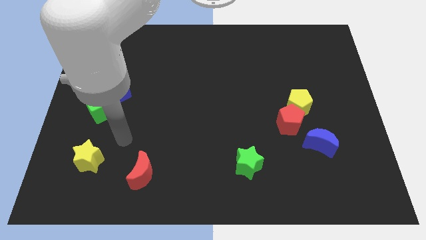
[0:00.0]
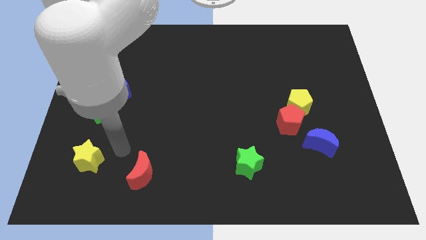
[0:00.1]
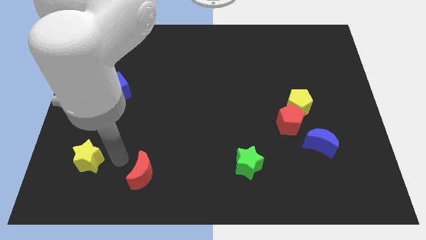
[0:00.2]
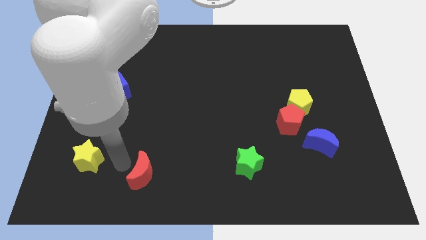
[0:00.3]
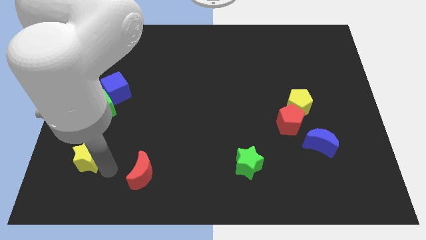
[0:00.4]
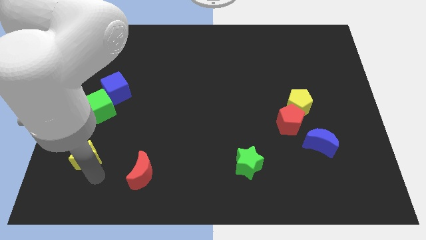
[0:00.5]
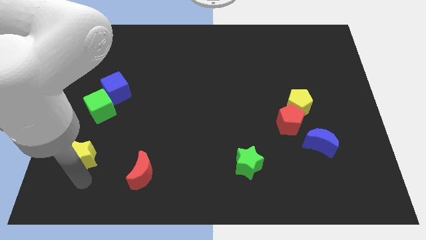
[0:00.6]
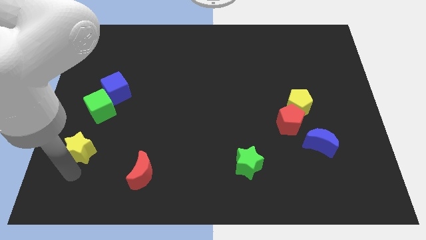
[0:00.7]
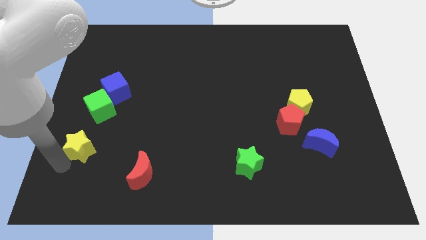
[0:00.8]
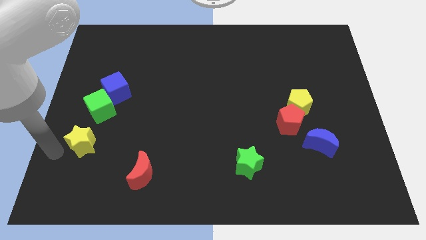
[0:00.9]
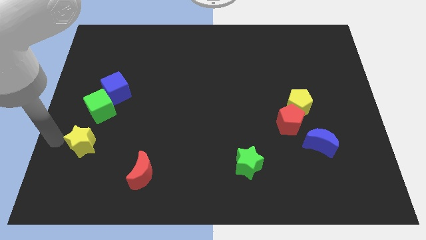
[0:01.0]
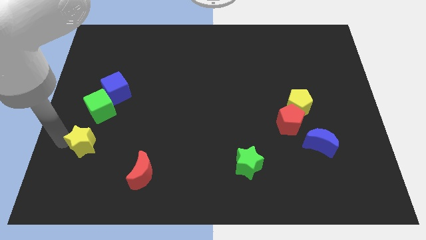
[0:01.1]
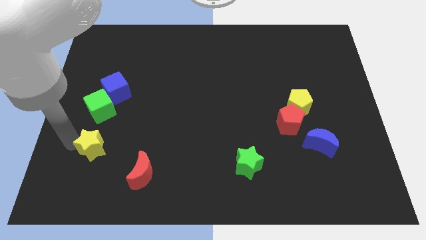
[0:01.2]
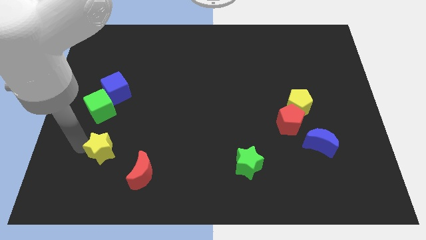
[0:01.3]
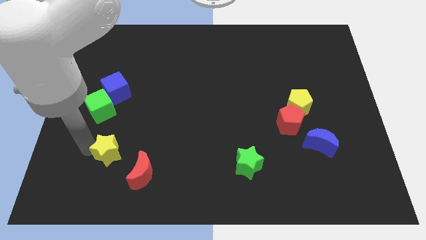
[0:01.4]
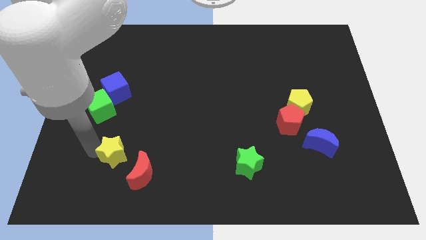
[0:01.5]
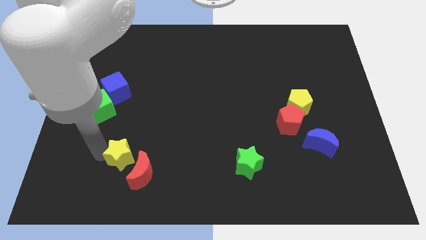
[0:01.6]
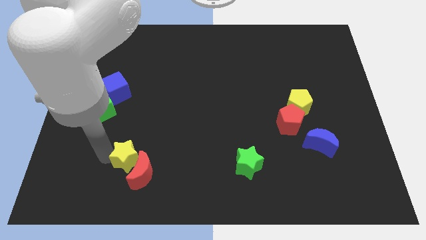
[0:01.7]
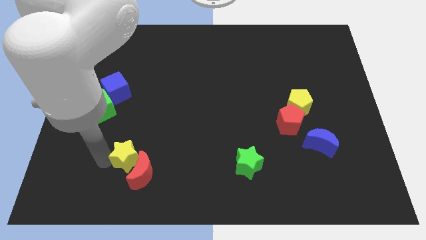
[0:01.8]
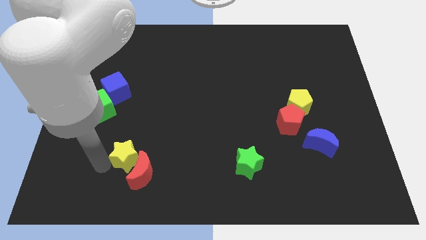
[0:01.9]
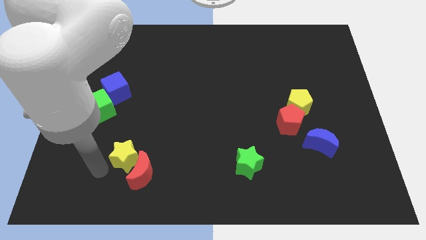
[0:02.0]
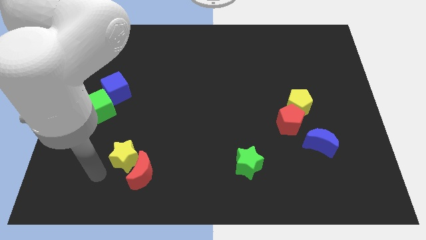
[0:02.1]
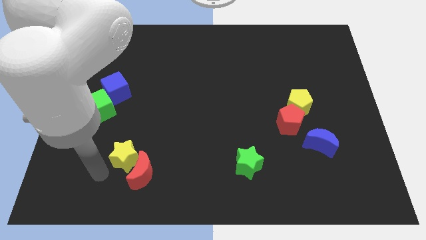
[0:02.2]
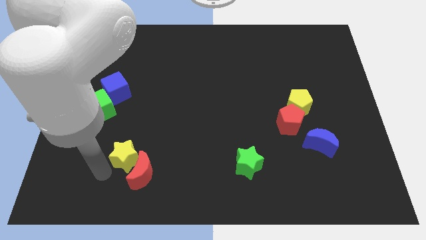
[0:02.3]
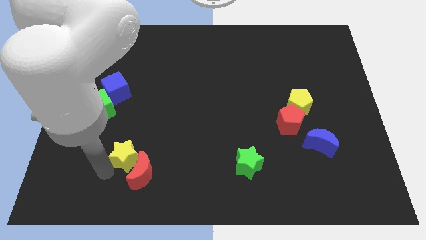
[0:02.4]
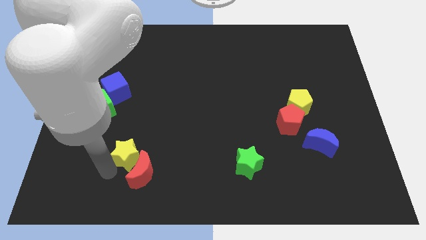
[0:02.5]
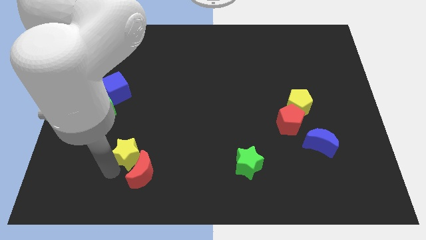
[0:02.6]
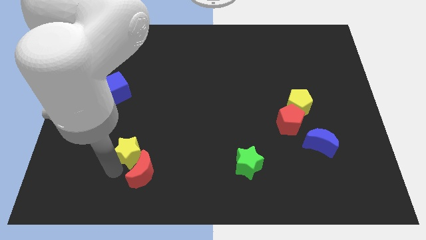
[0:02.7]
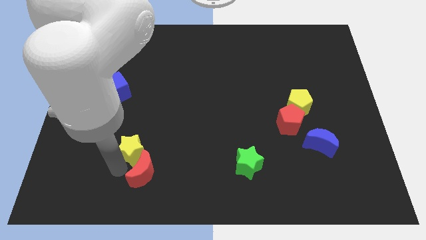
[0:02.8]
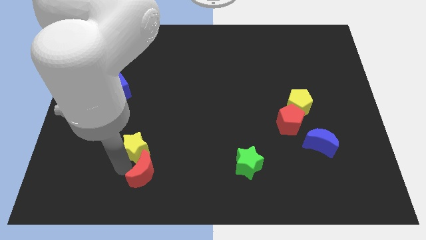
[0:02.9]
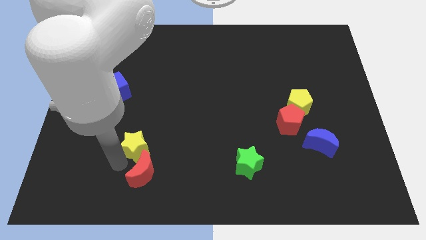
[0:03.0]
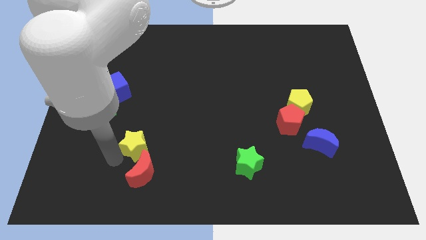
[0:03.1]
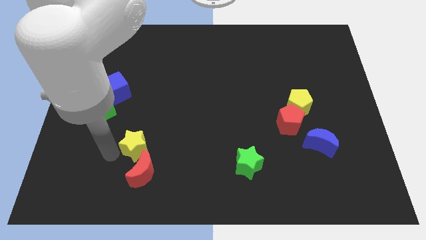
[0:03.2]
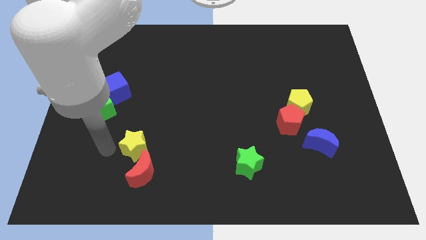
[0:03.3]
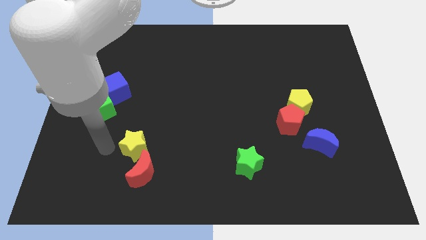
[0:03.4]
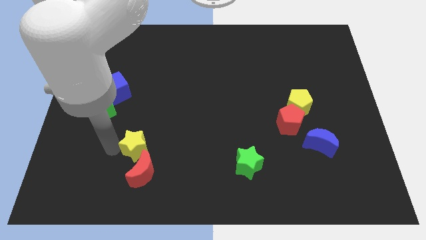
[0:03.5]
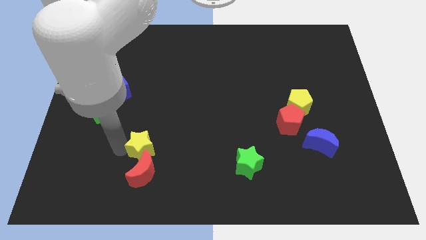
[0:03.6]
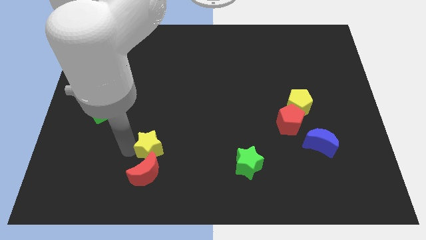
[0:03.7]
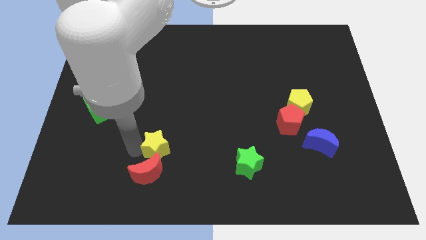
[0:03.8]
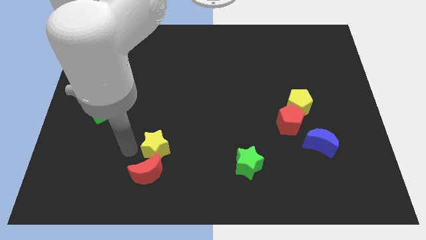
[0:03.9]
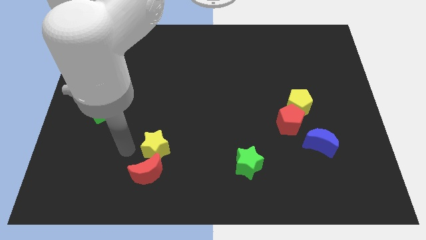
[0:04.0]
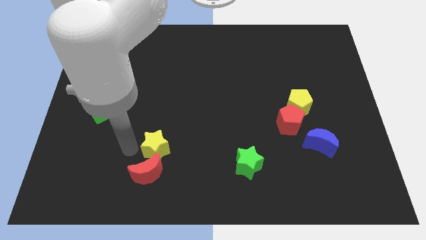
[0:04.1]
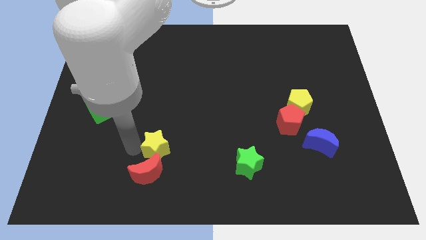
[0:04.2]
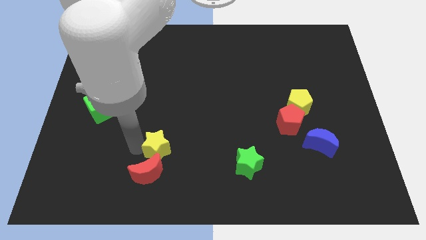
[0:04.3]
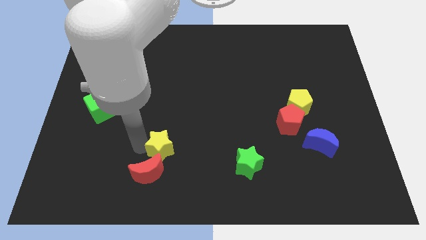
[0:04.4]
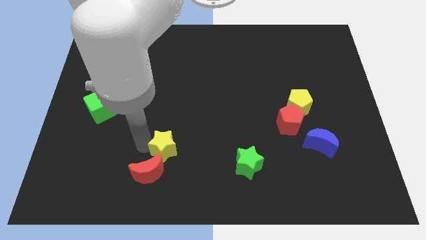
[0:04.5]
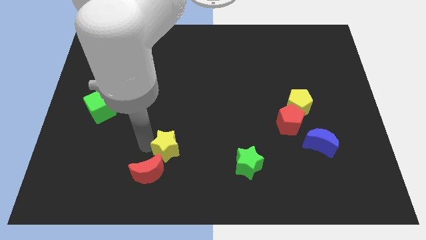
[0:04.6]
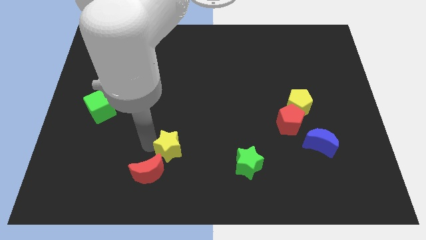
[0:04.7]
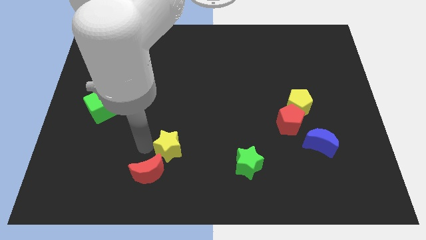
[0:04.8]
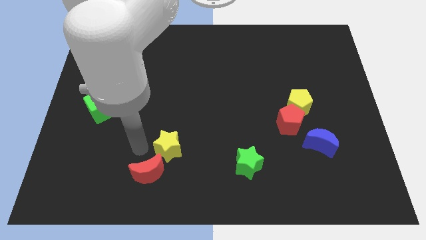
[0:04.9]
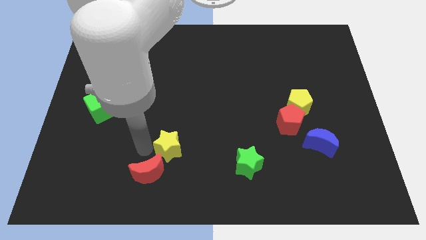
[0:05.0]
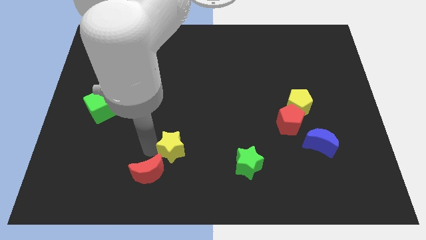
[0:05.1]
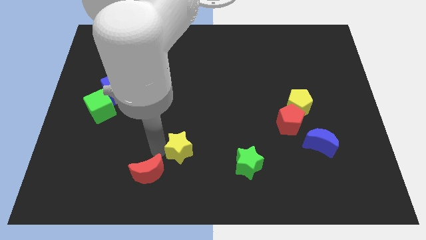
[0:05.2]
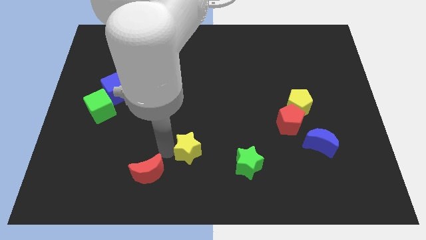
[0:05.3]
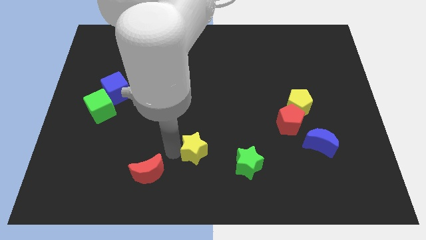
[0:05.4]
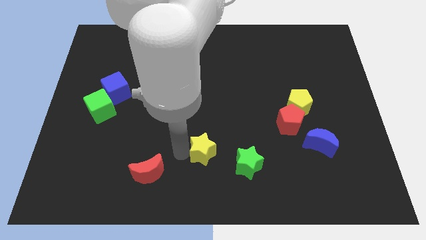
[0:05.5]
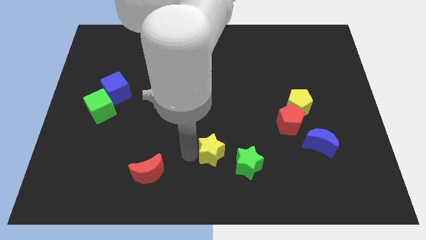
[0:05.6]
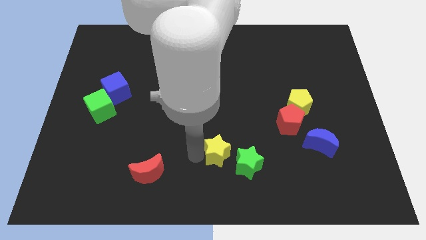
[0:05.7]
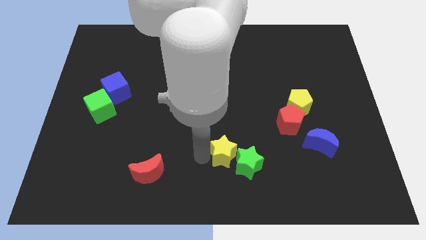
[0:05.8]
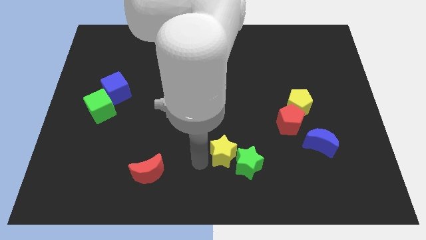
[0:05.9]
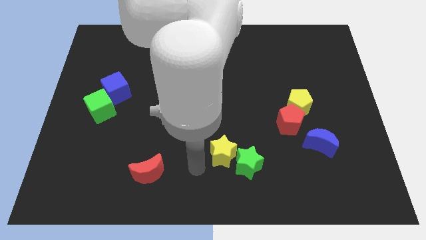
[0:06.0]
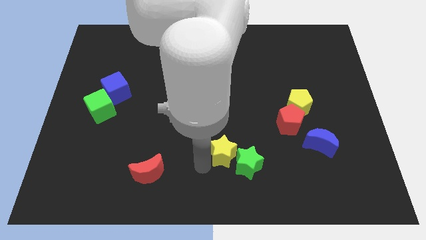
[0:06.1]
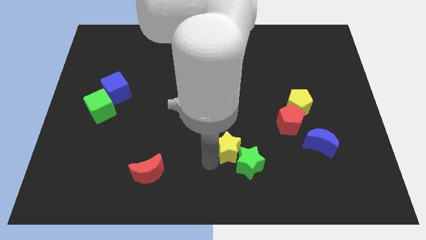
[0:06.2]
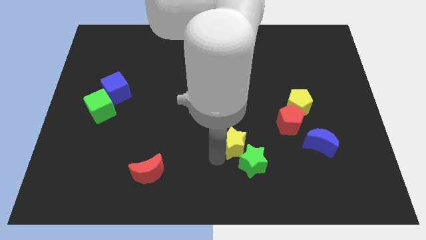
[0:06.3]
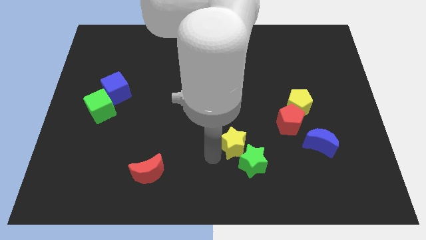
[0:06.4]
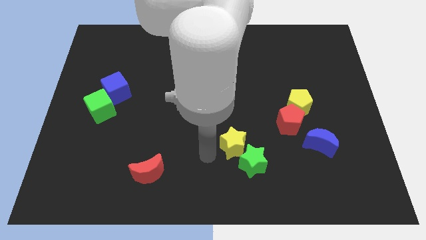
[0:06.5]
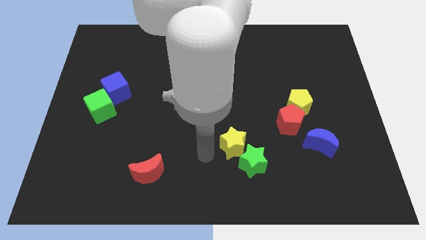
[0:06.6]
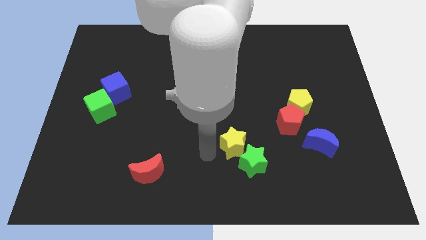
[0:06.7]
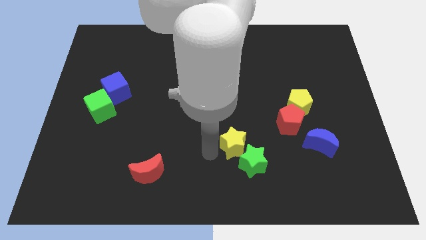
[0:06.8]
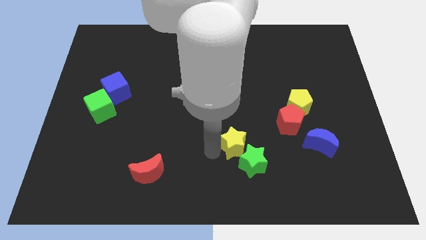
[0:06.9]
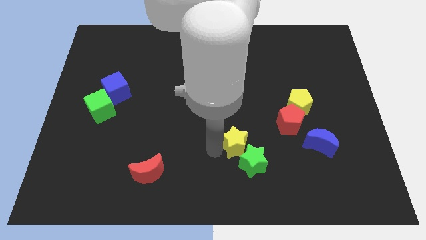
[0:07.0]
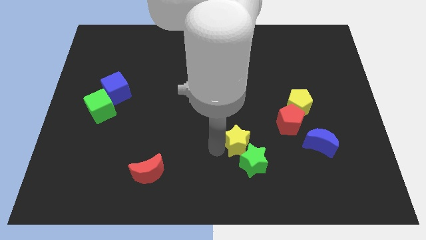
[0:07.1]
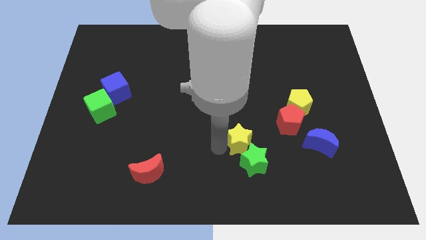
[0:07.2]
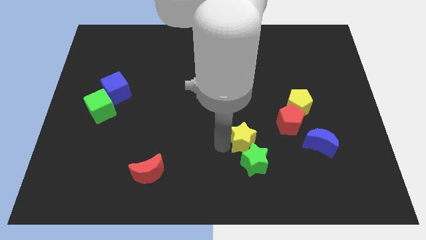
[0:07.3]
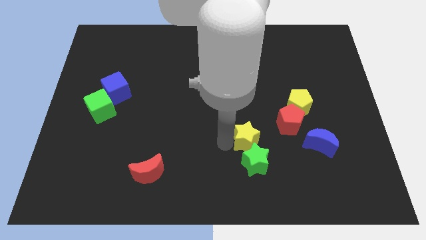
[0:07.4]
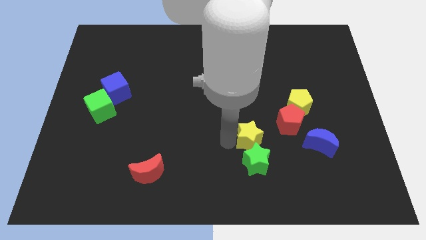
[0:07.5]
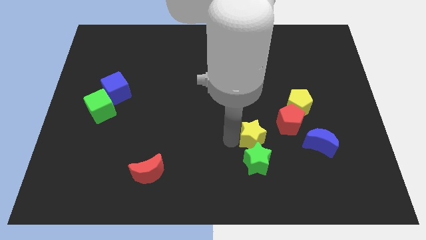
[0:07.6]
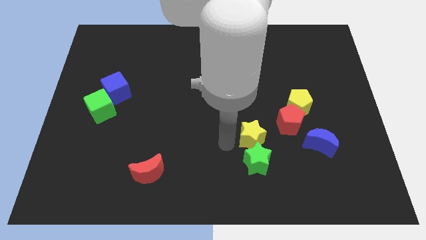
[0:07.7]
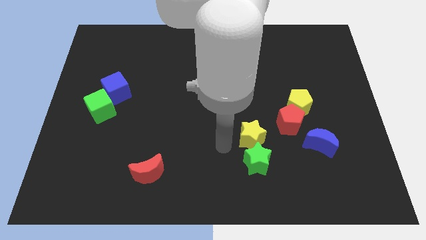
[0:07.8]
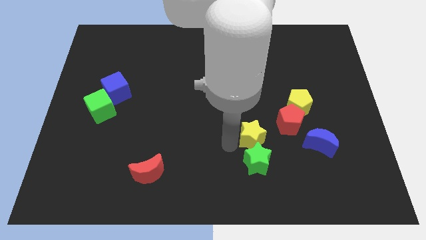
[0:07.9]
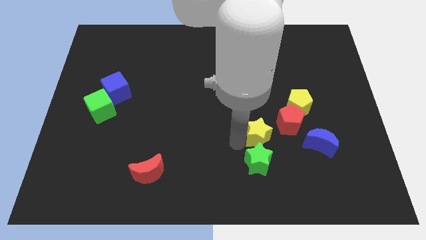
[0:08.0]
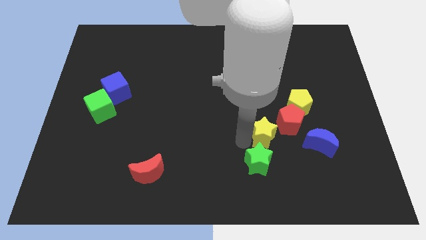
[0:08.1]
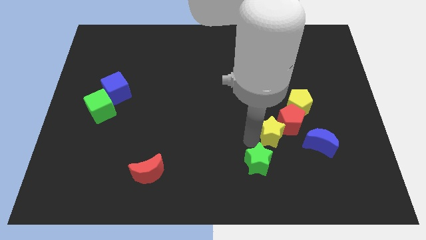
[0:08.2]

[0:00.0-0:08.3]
push the yellow star next to the red pentagon
